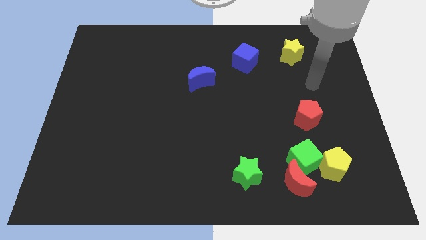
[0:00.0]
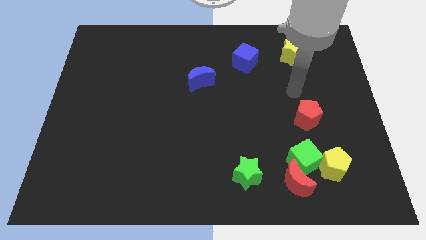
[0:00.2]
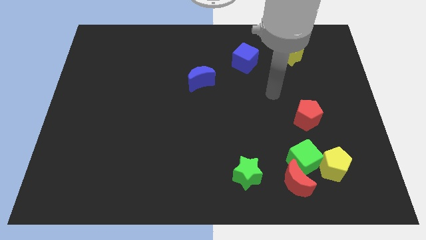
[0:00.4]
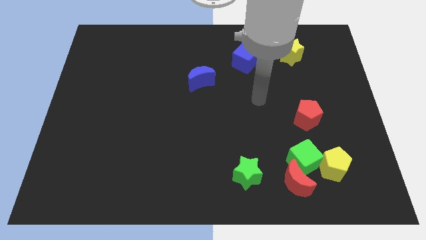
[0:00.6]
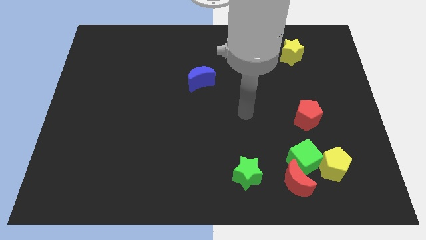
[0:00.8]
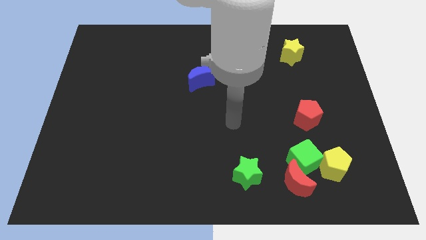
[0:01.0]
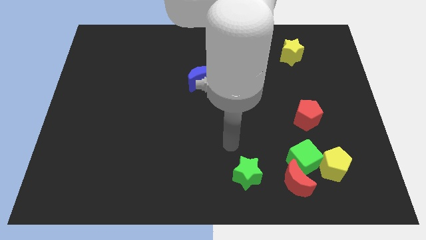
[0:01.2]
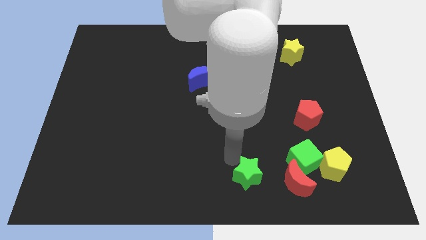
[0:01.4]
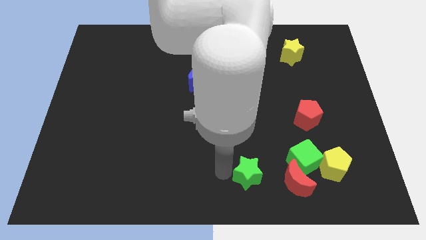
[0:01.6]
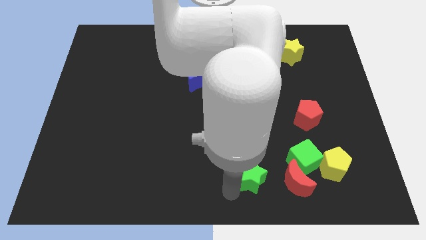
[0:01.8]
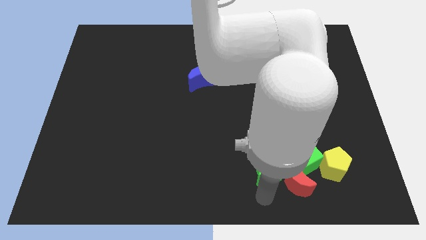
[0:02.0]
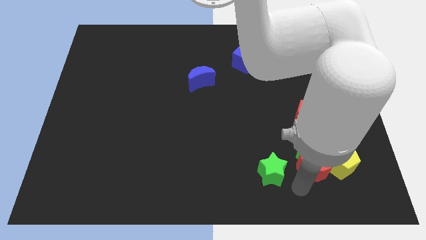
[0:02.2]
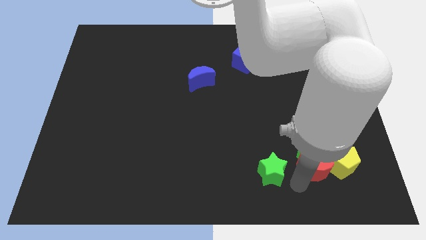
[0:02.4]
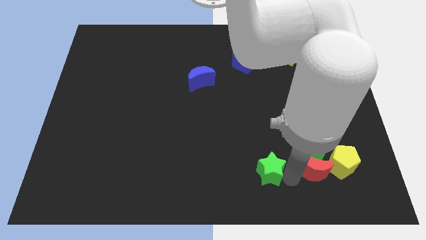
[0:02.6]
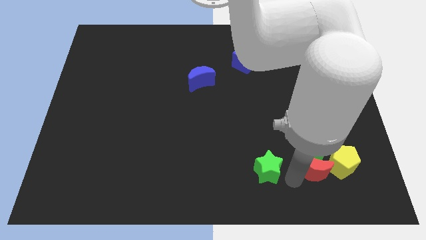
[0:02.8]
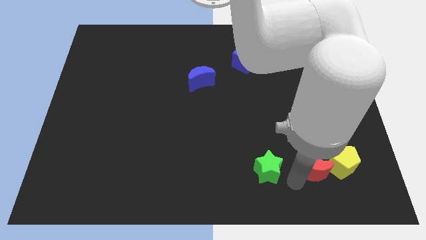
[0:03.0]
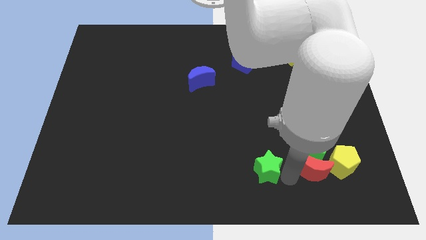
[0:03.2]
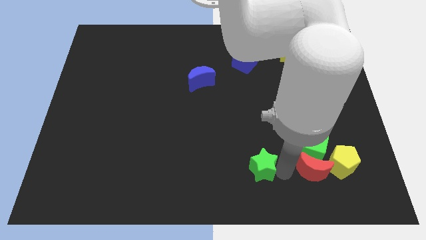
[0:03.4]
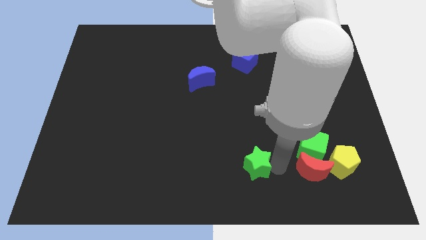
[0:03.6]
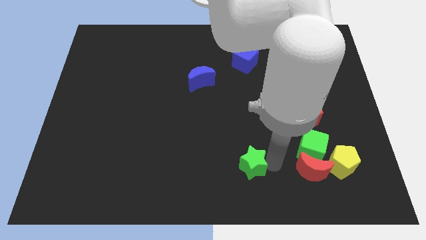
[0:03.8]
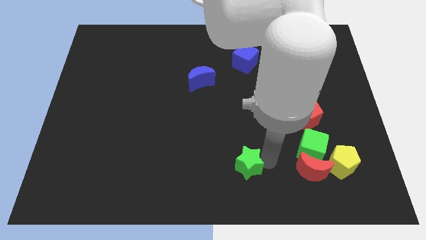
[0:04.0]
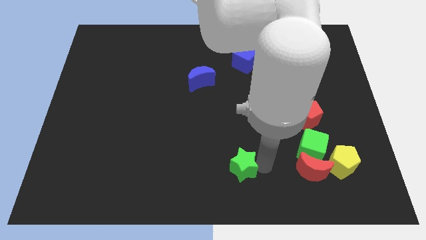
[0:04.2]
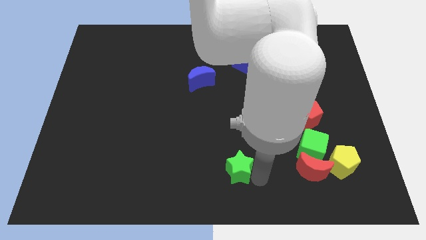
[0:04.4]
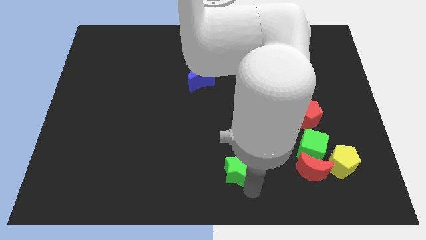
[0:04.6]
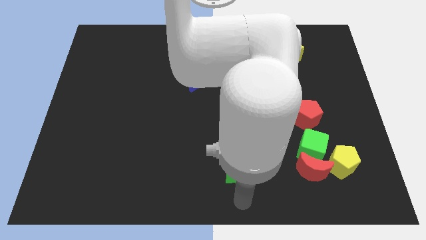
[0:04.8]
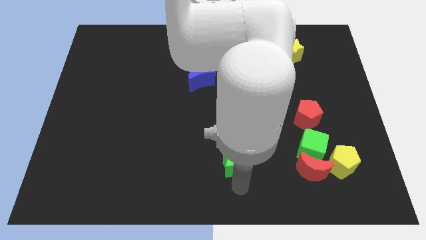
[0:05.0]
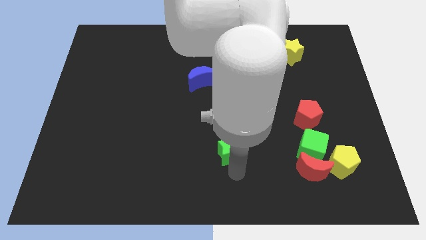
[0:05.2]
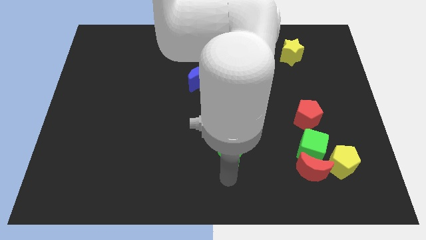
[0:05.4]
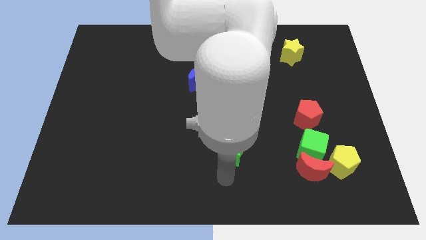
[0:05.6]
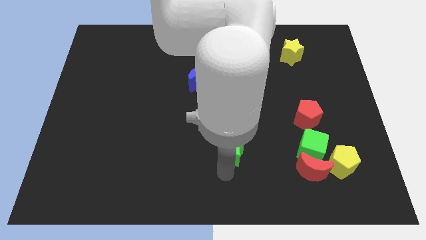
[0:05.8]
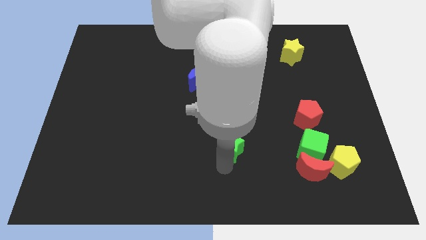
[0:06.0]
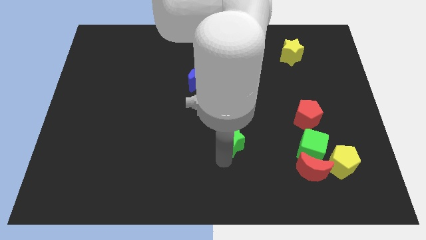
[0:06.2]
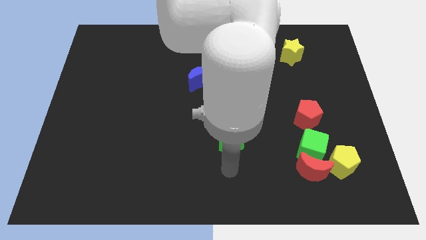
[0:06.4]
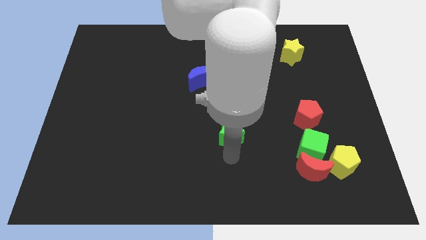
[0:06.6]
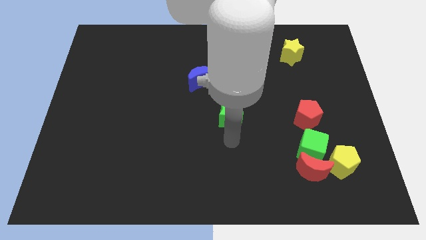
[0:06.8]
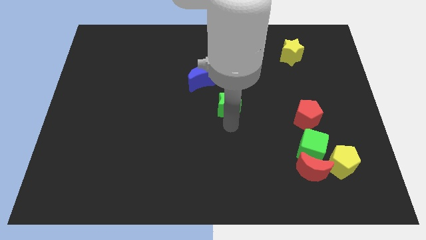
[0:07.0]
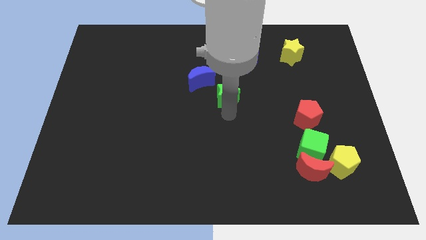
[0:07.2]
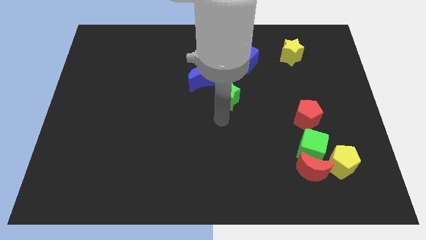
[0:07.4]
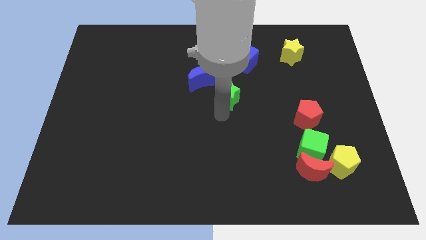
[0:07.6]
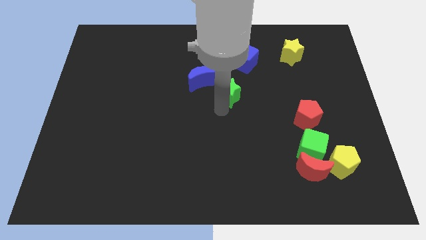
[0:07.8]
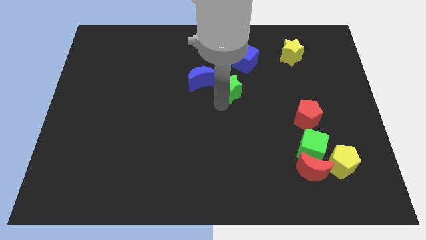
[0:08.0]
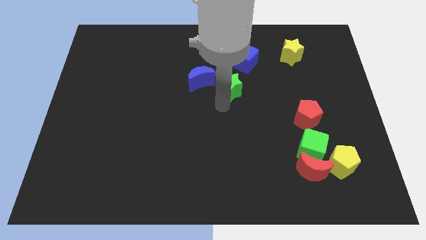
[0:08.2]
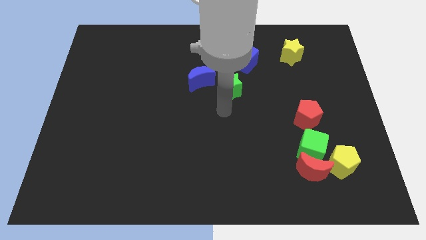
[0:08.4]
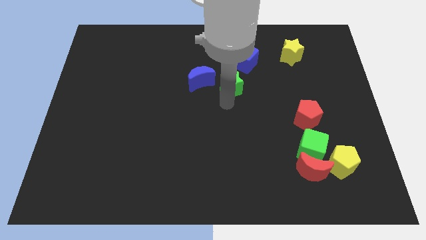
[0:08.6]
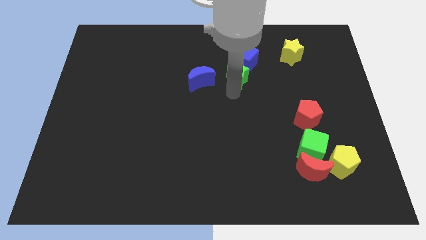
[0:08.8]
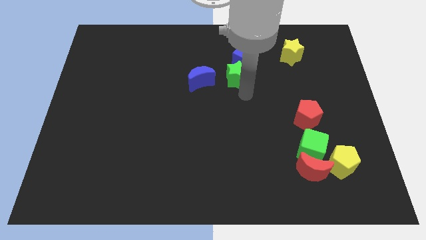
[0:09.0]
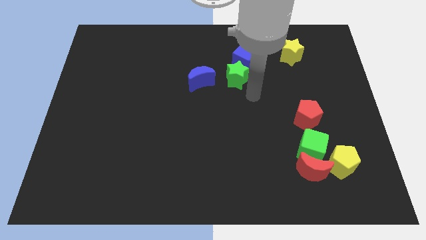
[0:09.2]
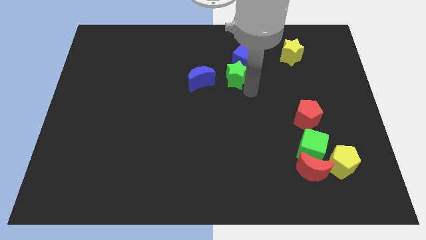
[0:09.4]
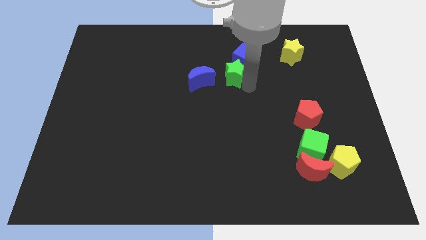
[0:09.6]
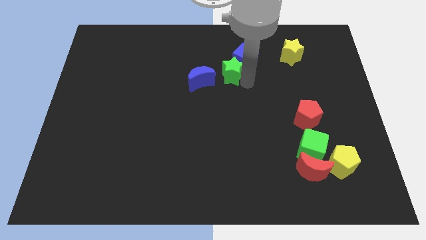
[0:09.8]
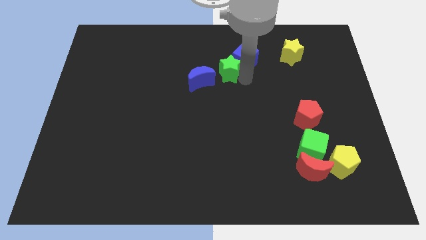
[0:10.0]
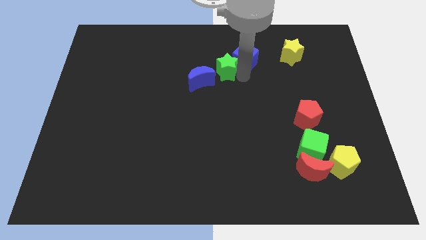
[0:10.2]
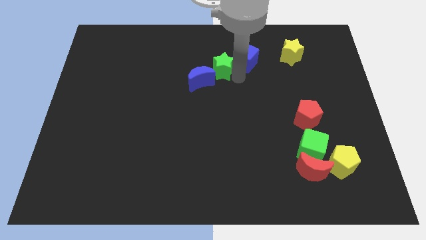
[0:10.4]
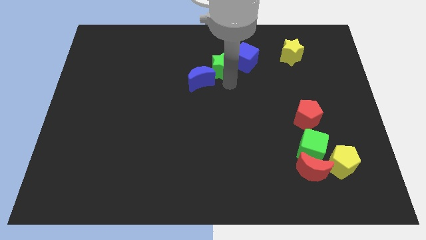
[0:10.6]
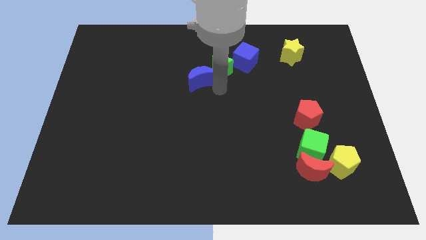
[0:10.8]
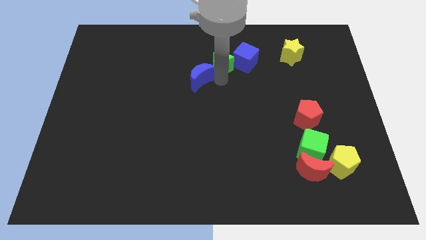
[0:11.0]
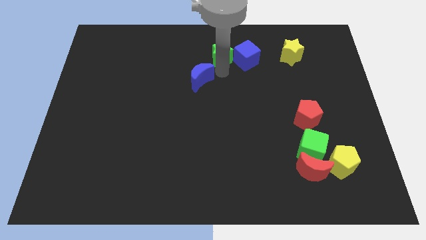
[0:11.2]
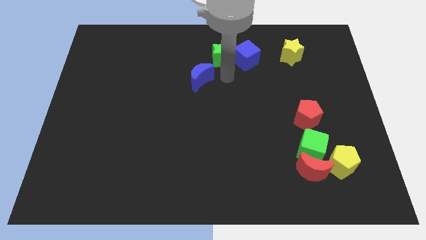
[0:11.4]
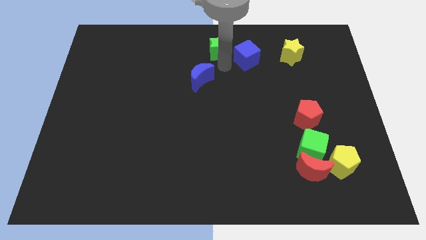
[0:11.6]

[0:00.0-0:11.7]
push the green star to the top

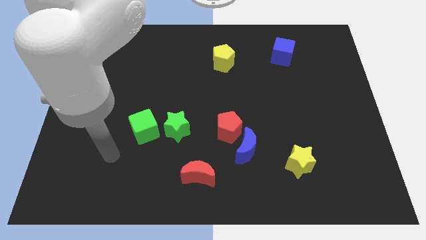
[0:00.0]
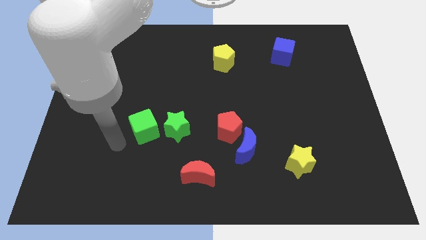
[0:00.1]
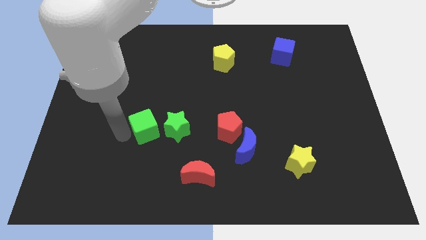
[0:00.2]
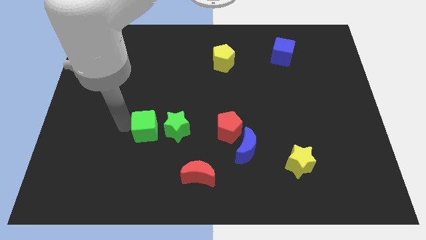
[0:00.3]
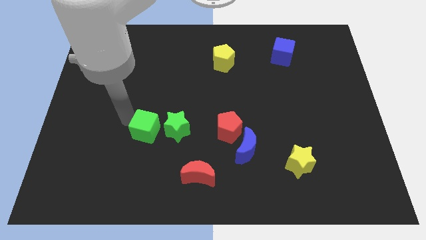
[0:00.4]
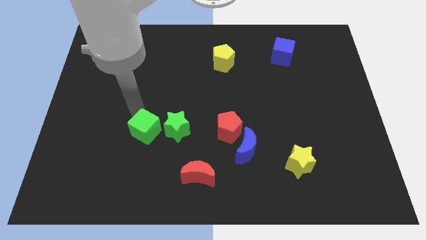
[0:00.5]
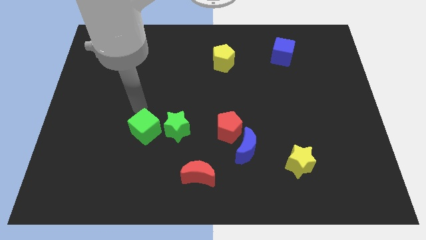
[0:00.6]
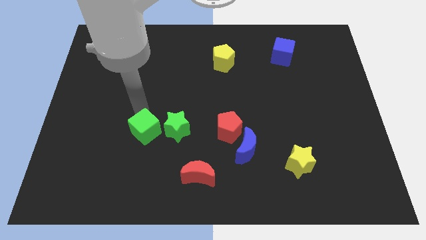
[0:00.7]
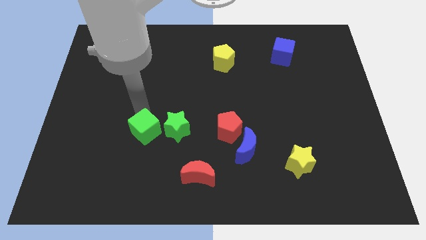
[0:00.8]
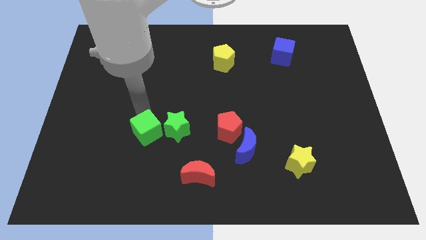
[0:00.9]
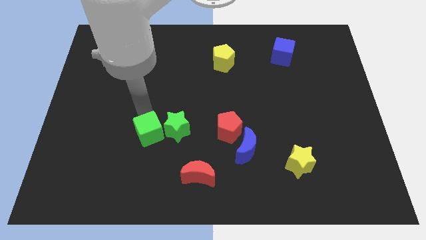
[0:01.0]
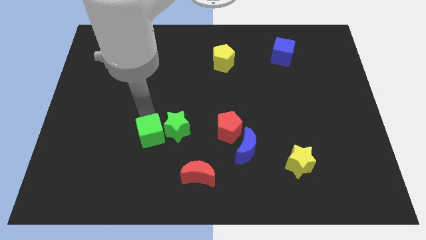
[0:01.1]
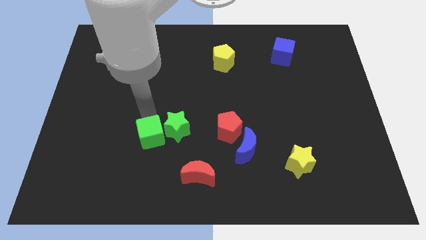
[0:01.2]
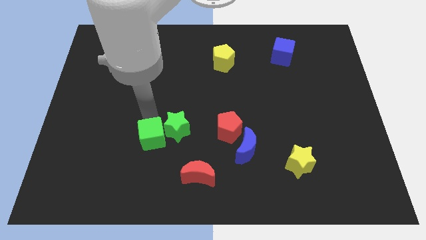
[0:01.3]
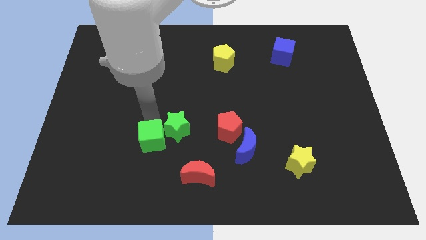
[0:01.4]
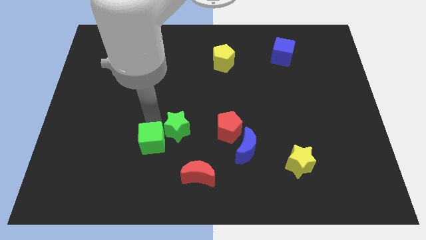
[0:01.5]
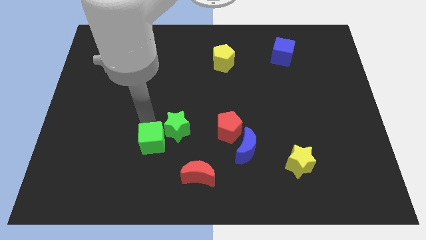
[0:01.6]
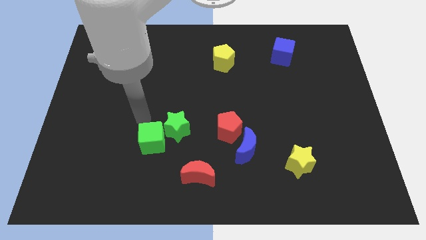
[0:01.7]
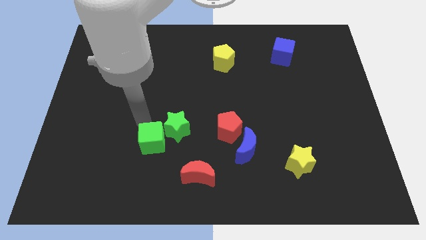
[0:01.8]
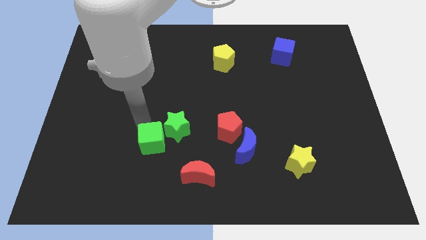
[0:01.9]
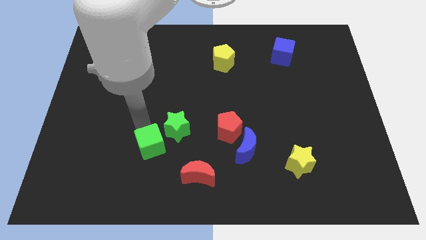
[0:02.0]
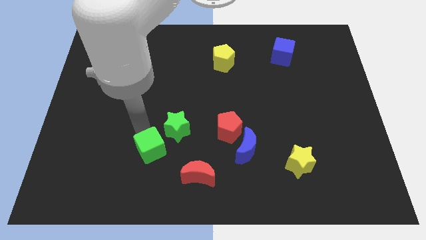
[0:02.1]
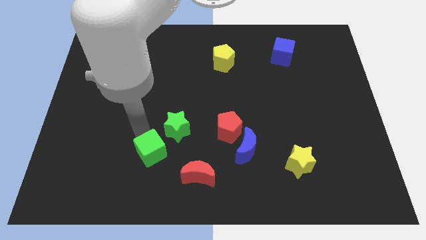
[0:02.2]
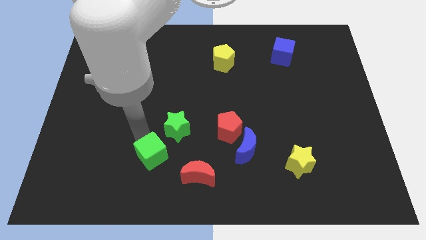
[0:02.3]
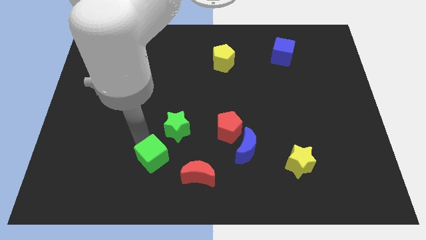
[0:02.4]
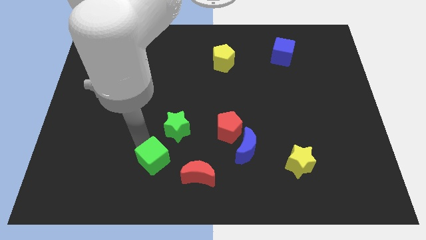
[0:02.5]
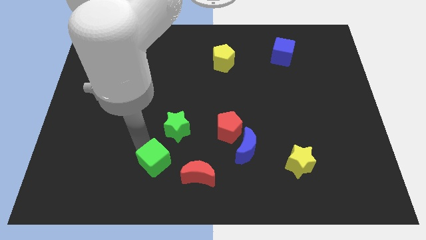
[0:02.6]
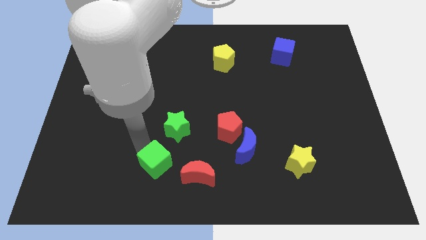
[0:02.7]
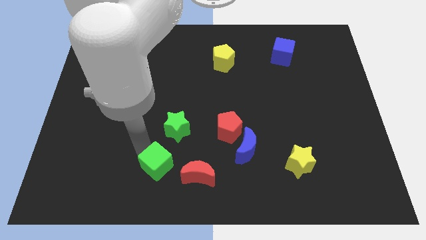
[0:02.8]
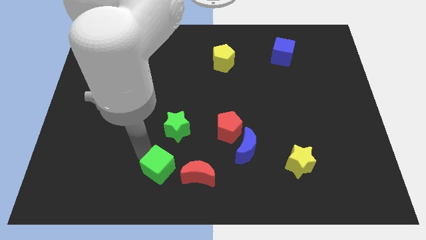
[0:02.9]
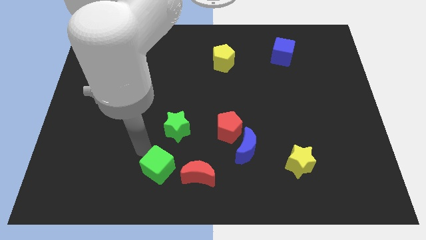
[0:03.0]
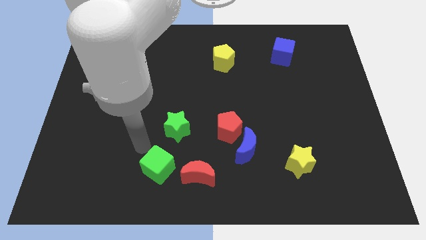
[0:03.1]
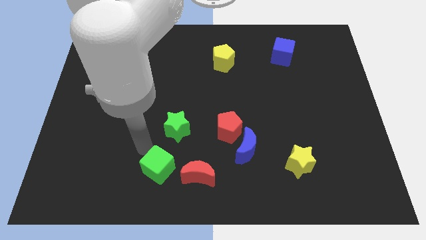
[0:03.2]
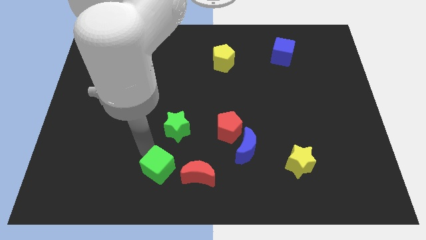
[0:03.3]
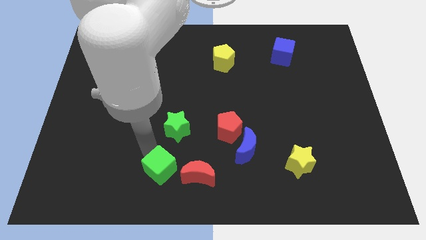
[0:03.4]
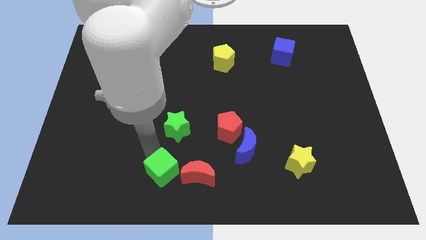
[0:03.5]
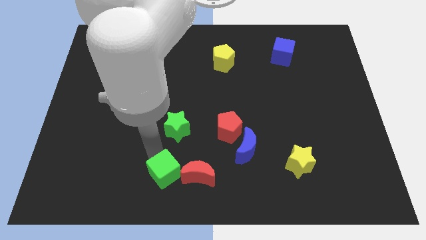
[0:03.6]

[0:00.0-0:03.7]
slide the green cube to the bottom side
